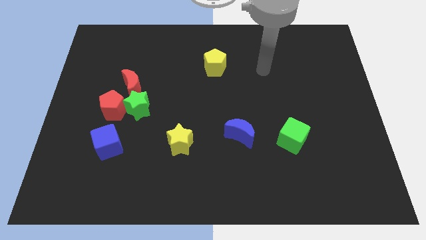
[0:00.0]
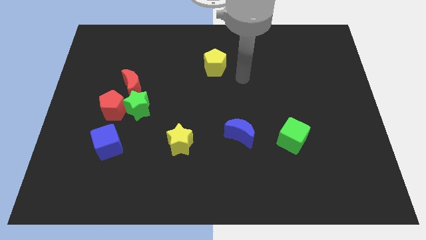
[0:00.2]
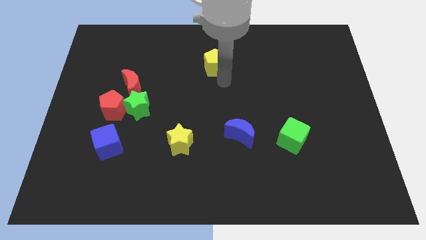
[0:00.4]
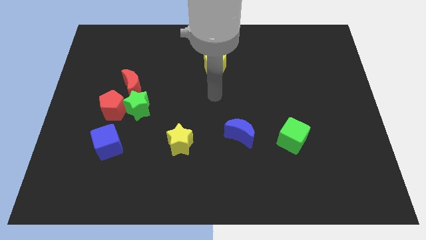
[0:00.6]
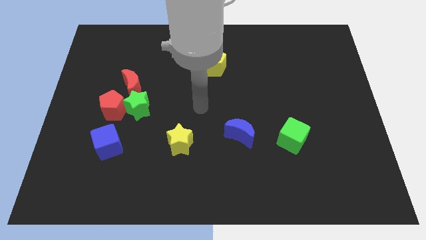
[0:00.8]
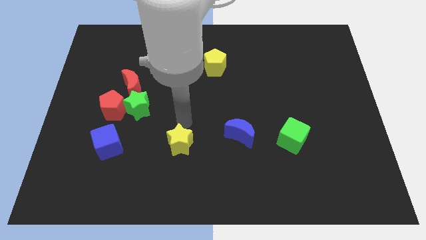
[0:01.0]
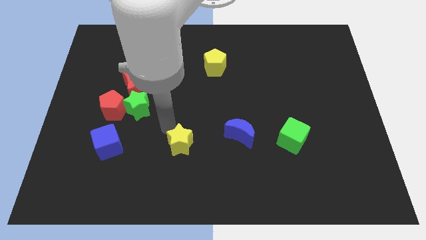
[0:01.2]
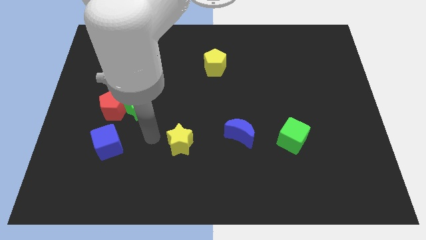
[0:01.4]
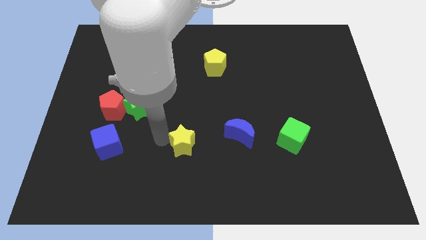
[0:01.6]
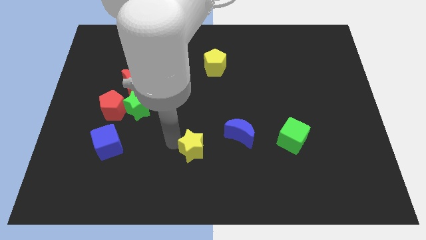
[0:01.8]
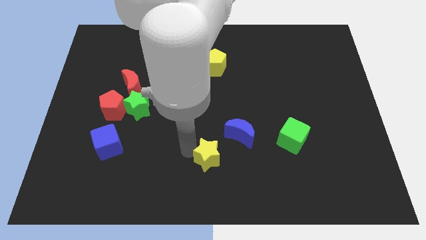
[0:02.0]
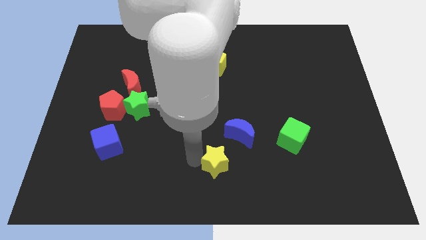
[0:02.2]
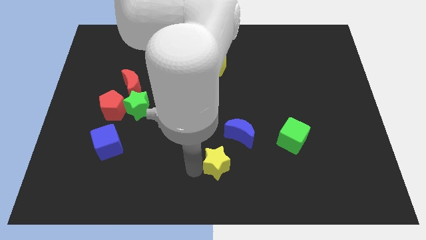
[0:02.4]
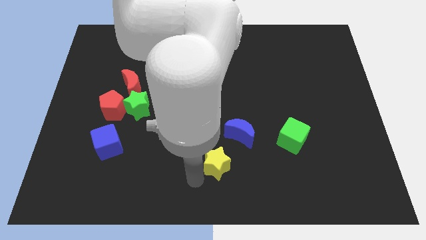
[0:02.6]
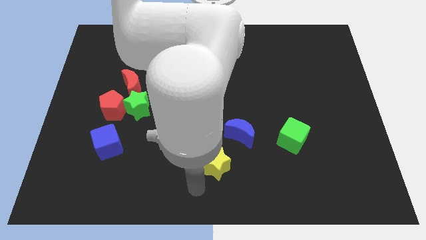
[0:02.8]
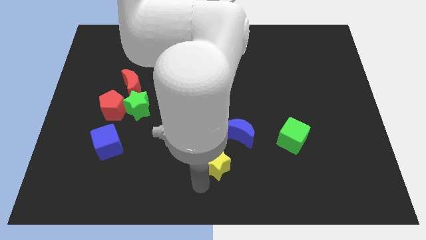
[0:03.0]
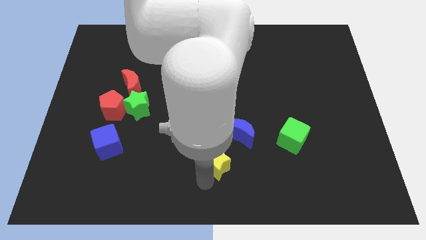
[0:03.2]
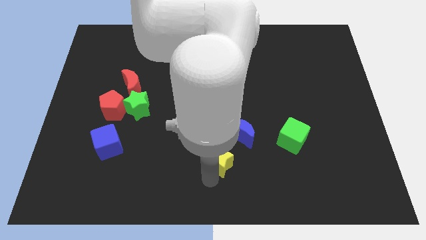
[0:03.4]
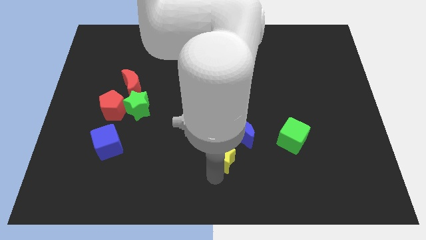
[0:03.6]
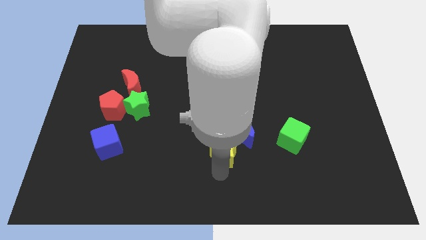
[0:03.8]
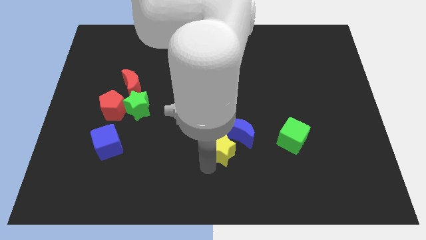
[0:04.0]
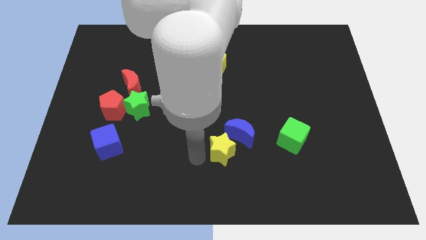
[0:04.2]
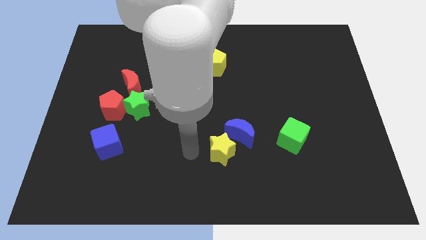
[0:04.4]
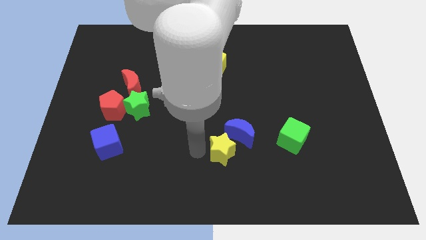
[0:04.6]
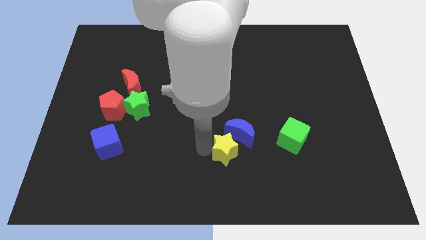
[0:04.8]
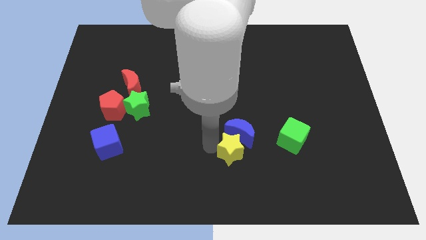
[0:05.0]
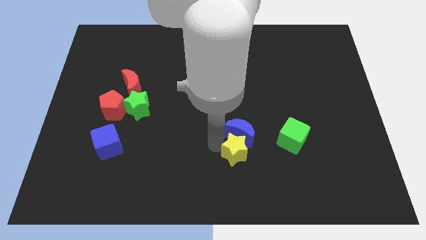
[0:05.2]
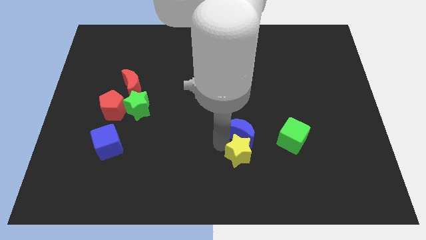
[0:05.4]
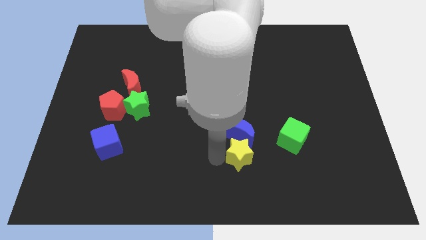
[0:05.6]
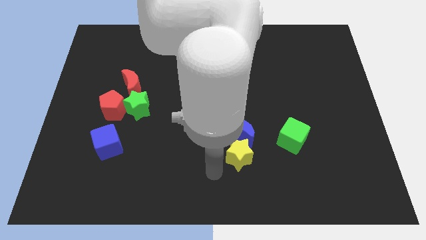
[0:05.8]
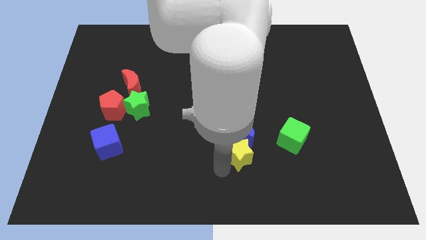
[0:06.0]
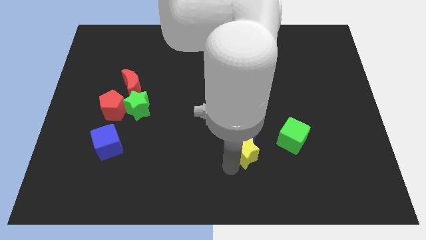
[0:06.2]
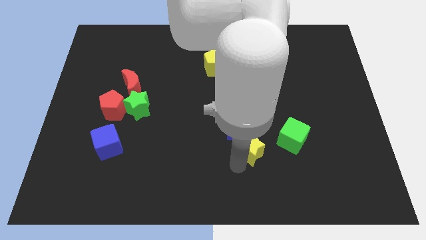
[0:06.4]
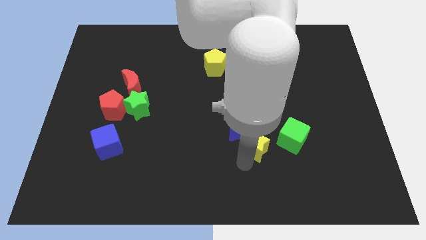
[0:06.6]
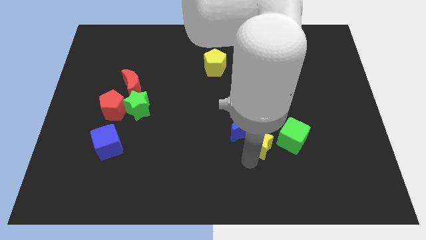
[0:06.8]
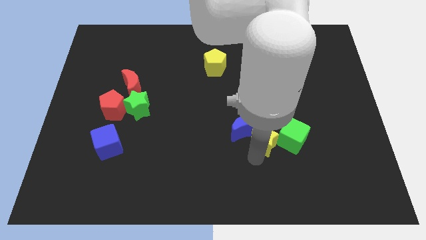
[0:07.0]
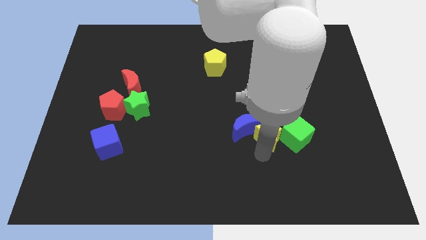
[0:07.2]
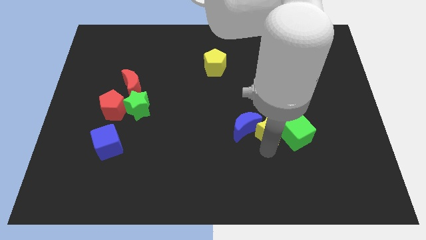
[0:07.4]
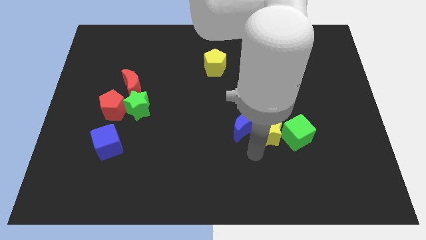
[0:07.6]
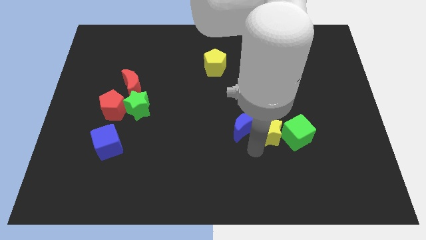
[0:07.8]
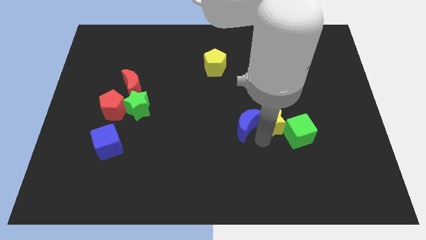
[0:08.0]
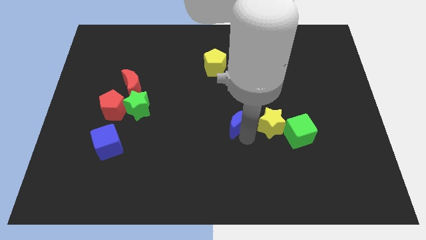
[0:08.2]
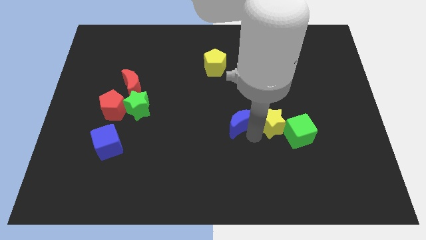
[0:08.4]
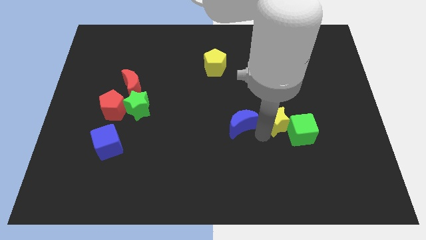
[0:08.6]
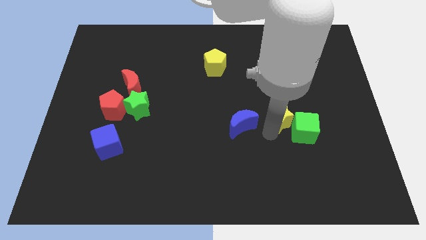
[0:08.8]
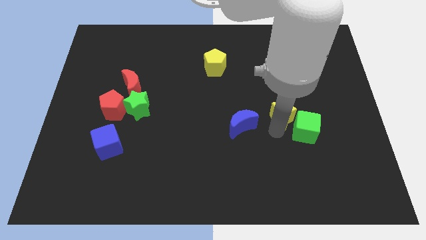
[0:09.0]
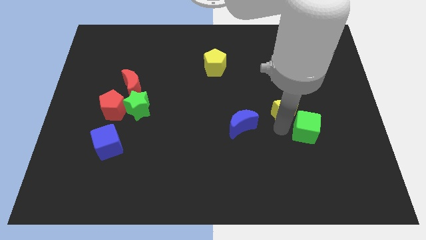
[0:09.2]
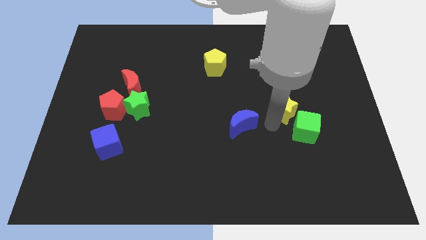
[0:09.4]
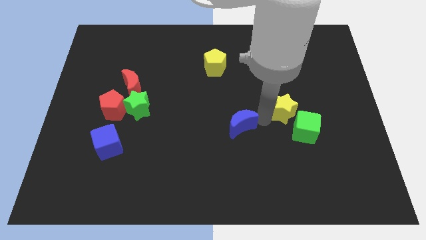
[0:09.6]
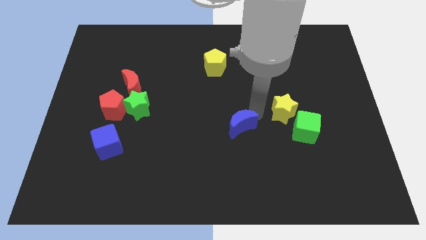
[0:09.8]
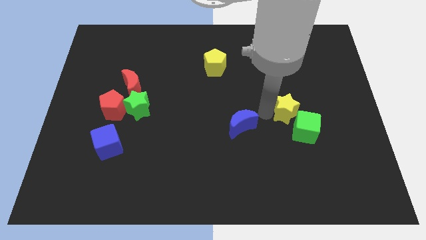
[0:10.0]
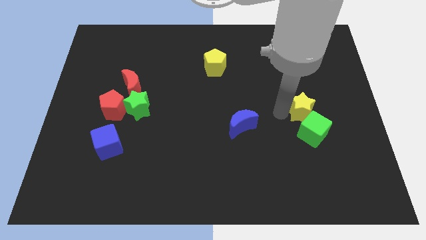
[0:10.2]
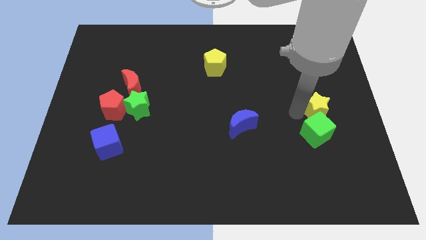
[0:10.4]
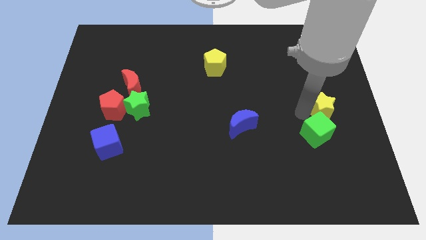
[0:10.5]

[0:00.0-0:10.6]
push the yellow star to the right side

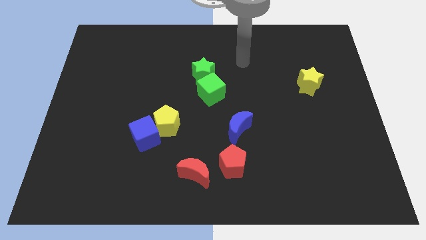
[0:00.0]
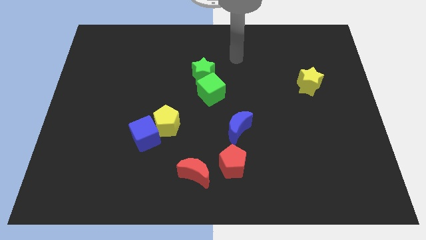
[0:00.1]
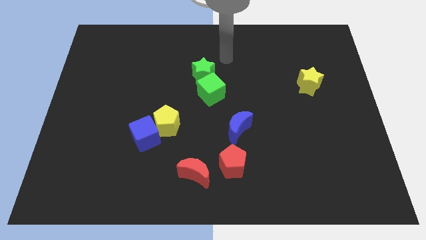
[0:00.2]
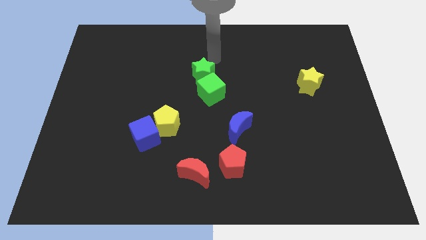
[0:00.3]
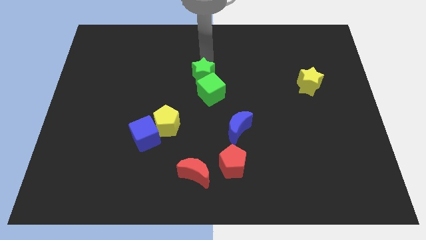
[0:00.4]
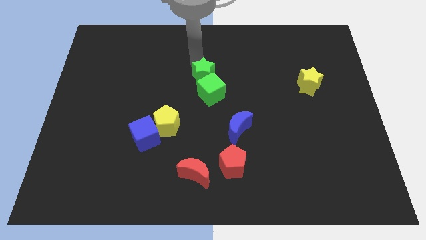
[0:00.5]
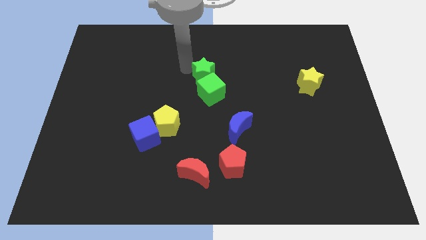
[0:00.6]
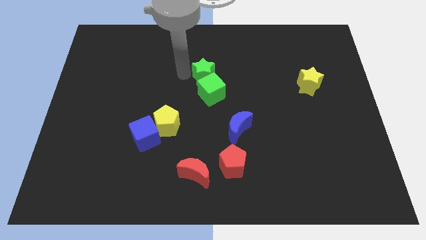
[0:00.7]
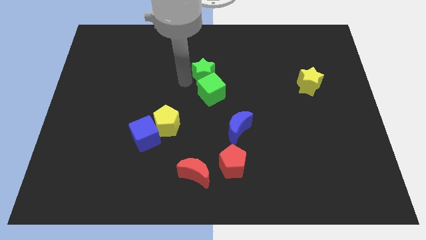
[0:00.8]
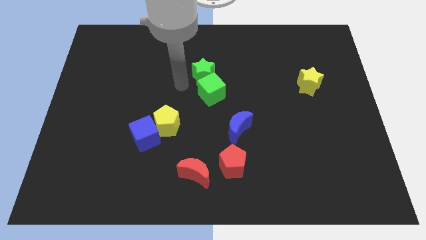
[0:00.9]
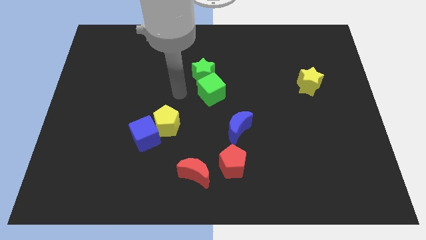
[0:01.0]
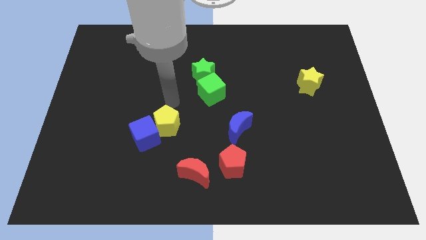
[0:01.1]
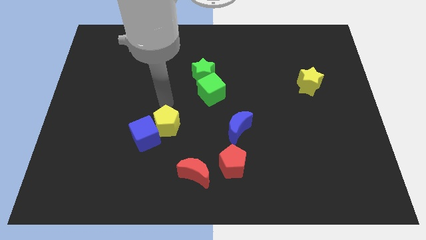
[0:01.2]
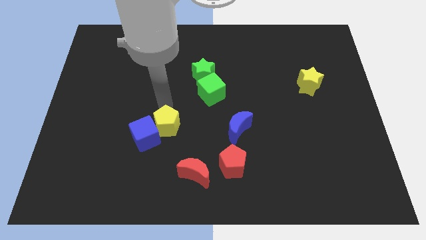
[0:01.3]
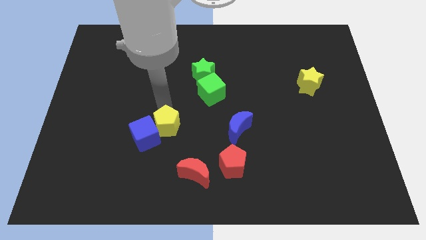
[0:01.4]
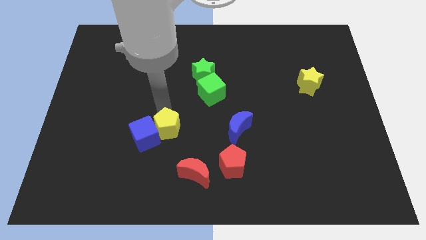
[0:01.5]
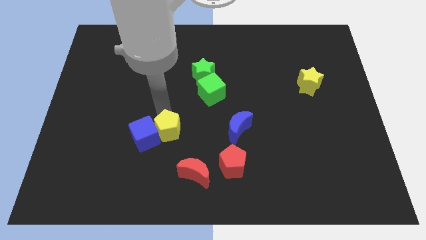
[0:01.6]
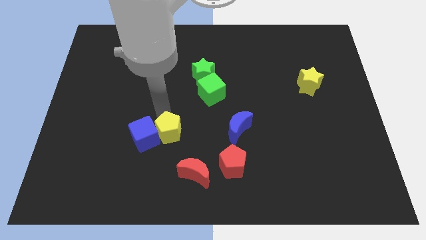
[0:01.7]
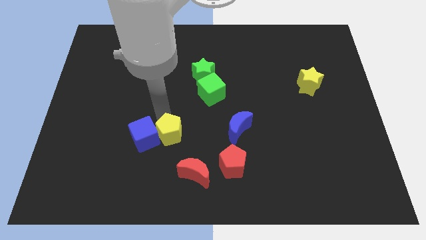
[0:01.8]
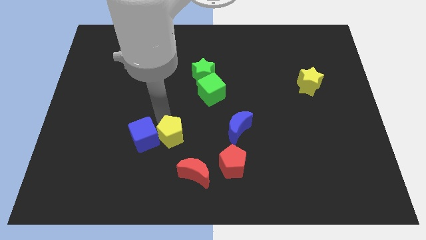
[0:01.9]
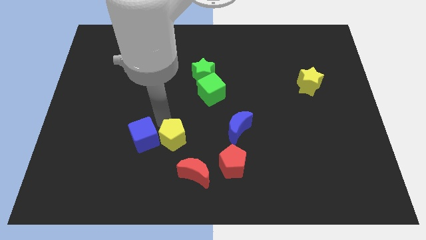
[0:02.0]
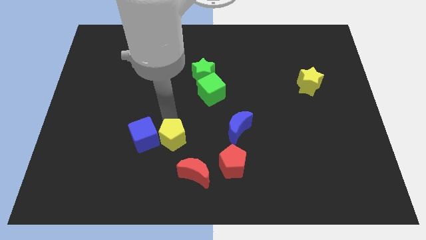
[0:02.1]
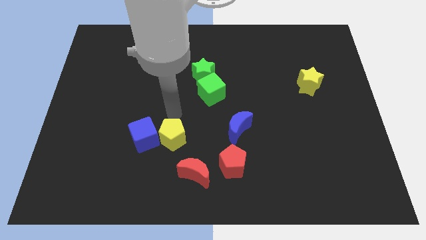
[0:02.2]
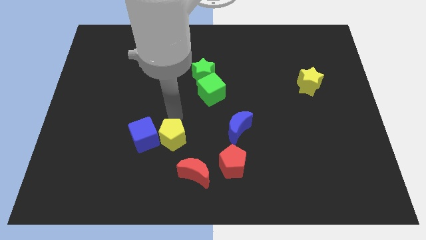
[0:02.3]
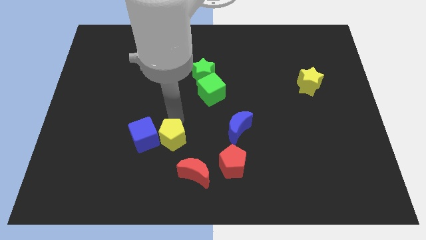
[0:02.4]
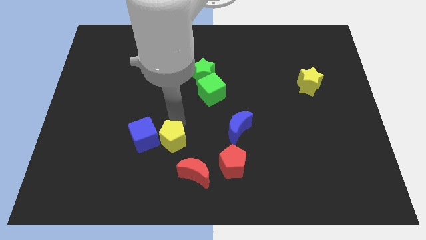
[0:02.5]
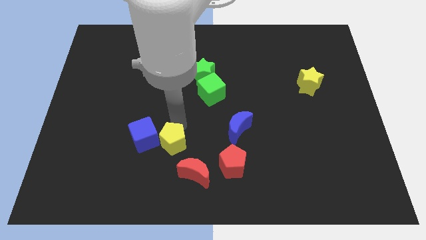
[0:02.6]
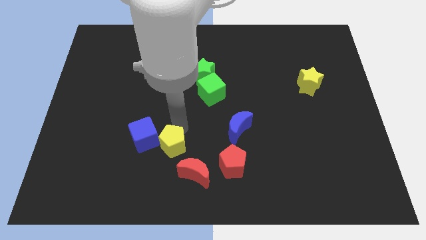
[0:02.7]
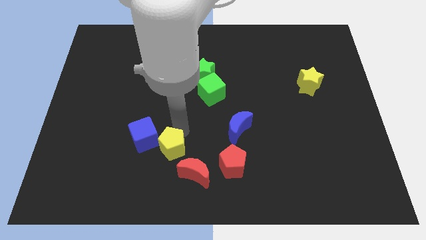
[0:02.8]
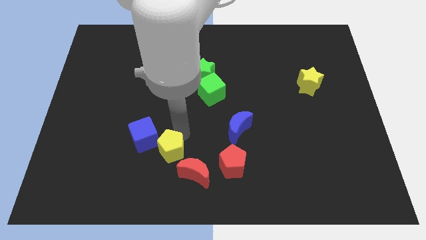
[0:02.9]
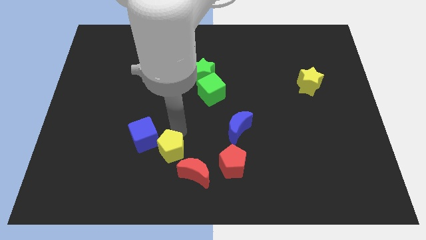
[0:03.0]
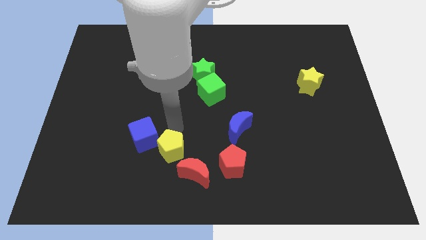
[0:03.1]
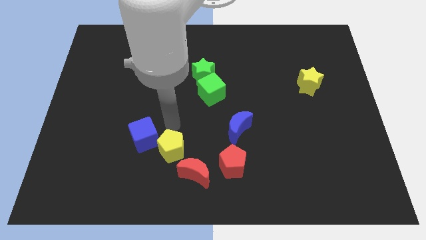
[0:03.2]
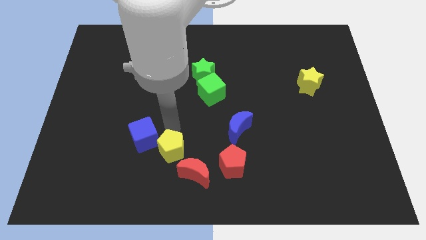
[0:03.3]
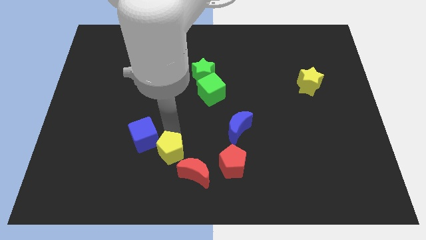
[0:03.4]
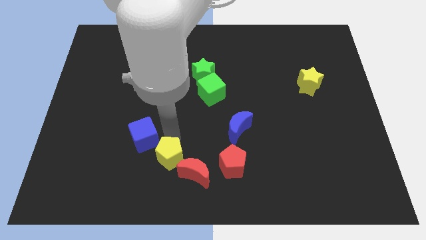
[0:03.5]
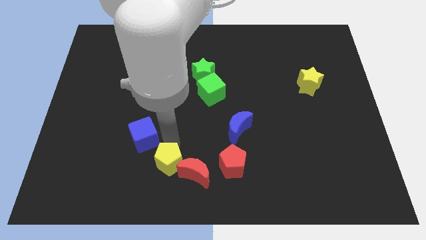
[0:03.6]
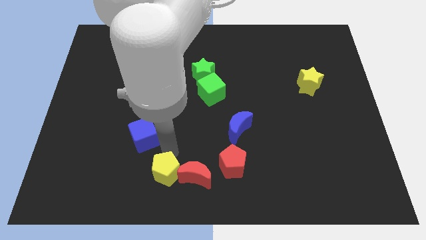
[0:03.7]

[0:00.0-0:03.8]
put the yellow pentagon to the bottom side
